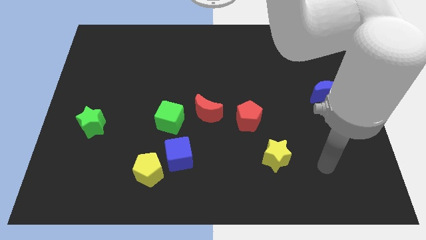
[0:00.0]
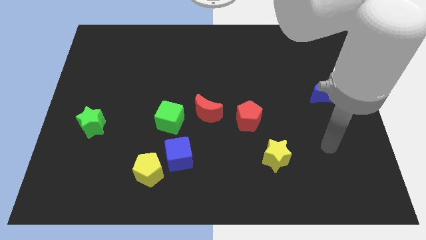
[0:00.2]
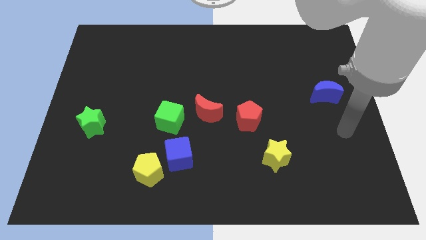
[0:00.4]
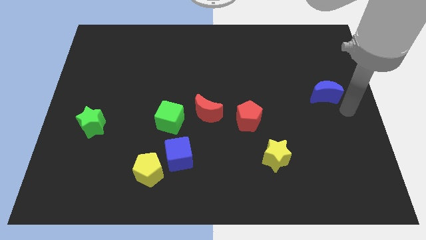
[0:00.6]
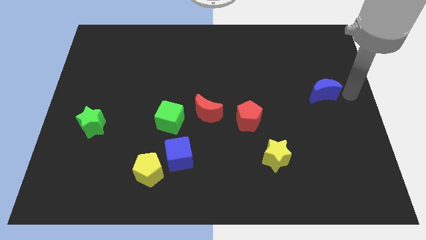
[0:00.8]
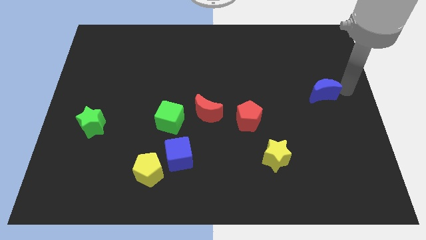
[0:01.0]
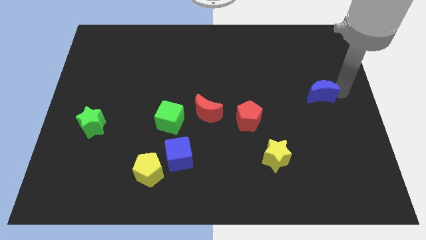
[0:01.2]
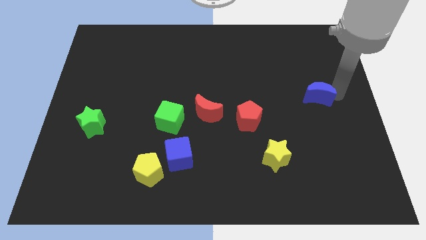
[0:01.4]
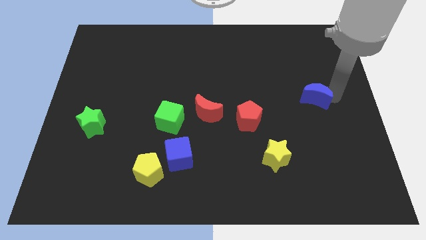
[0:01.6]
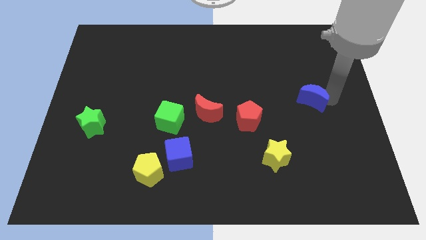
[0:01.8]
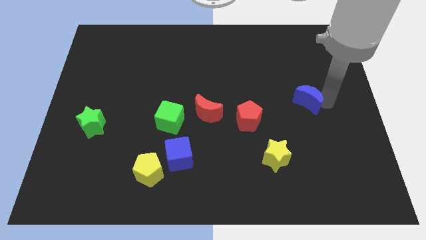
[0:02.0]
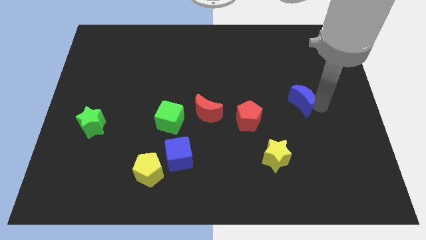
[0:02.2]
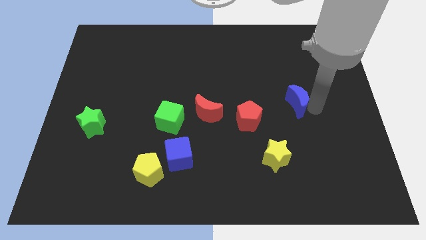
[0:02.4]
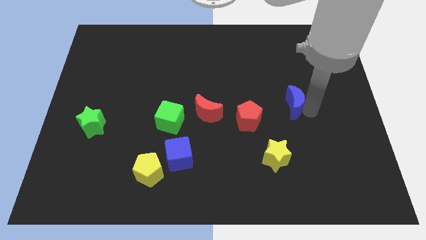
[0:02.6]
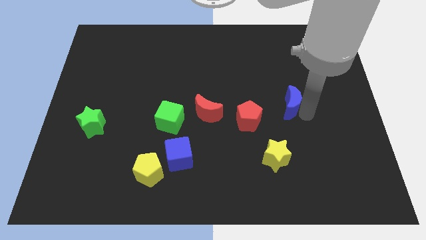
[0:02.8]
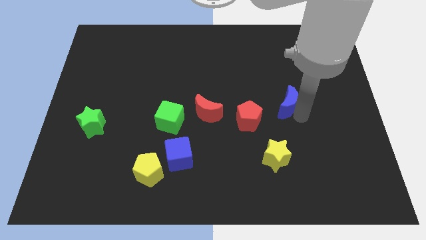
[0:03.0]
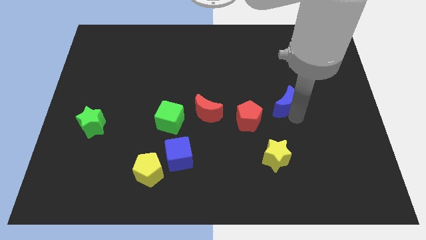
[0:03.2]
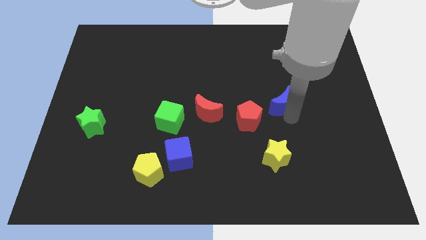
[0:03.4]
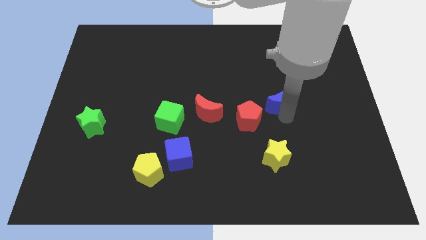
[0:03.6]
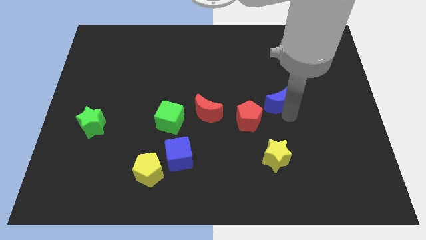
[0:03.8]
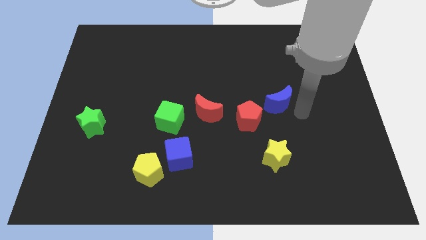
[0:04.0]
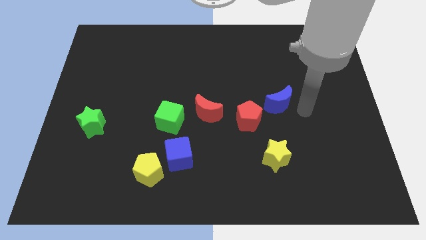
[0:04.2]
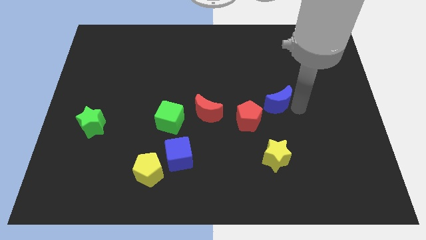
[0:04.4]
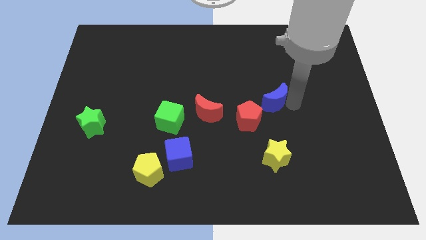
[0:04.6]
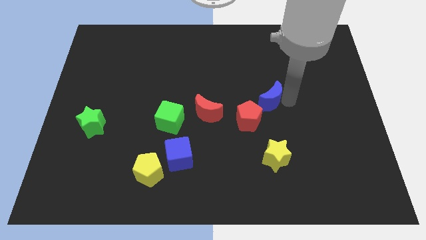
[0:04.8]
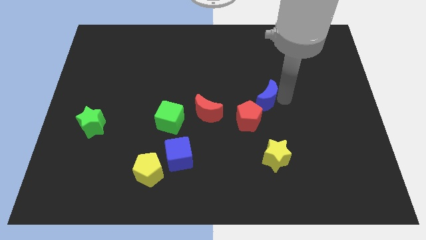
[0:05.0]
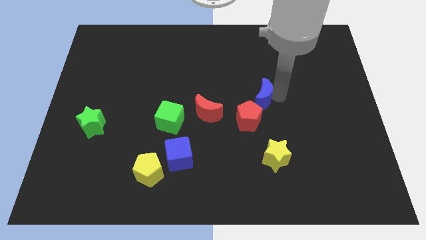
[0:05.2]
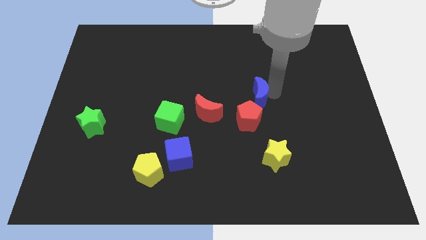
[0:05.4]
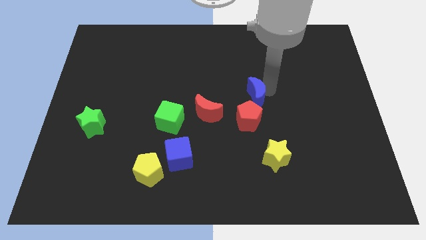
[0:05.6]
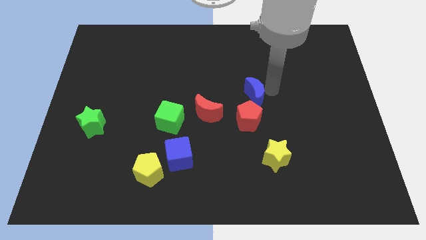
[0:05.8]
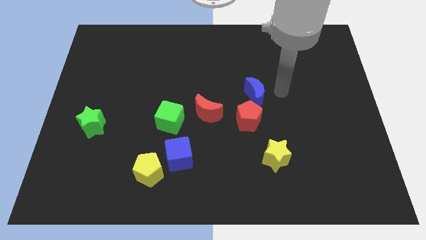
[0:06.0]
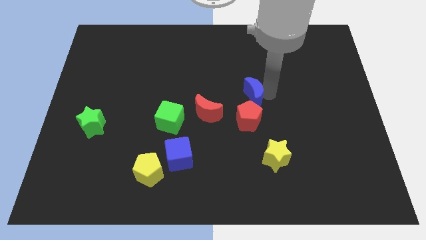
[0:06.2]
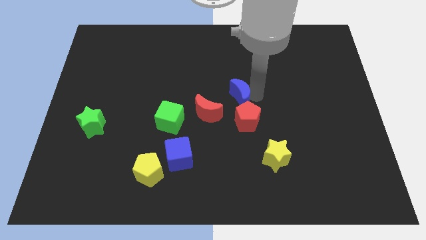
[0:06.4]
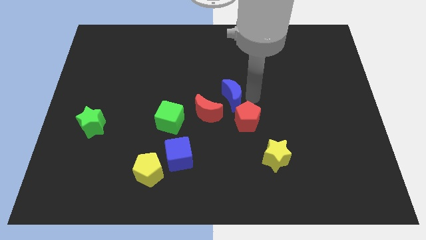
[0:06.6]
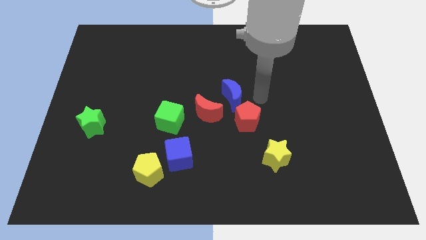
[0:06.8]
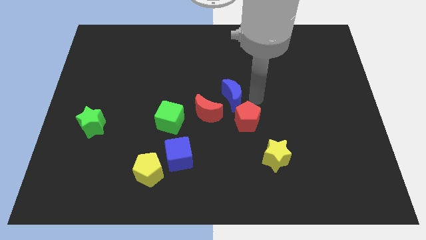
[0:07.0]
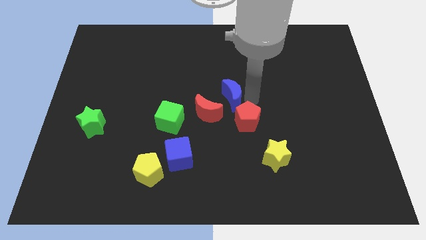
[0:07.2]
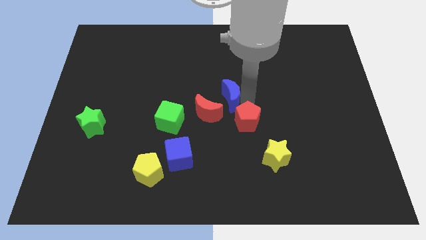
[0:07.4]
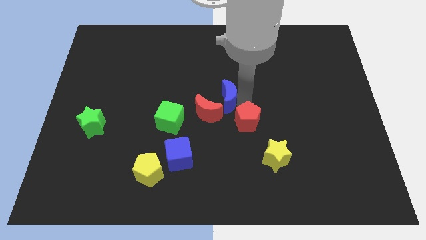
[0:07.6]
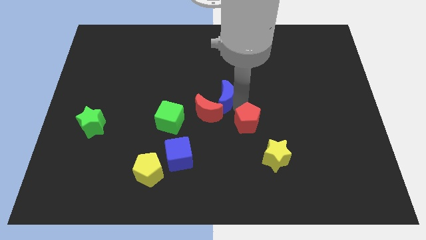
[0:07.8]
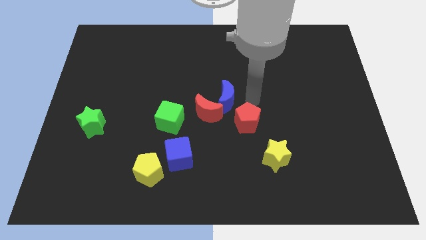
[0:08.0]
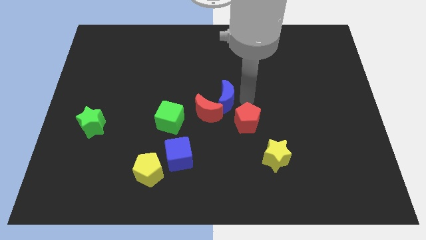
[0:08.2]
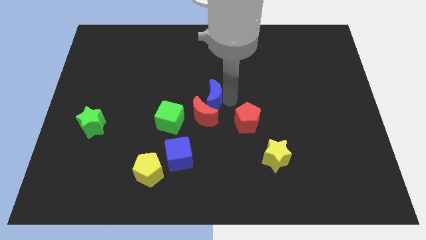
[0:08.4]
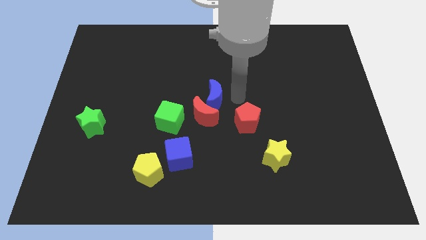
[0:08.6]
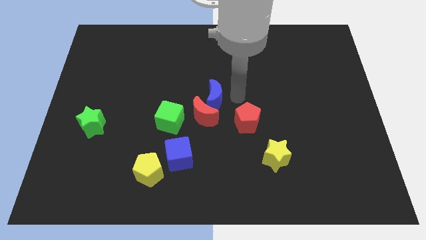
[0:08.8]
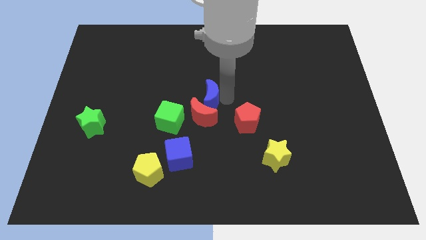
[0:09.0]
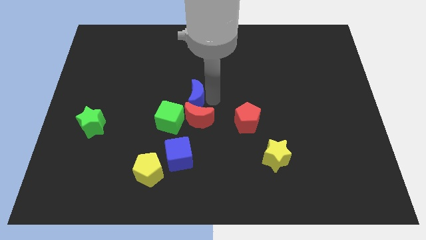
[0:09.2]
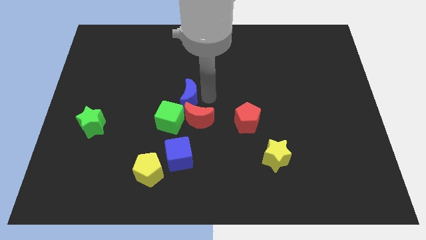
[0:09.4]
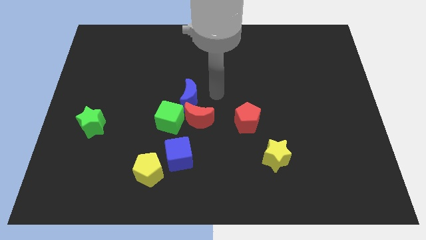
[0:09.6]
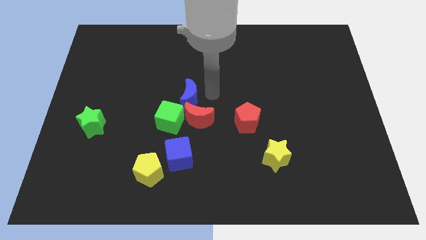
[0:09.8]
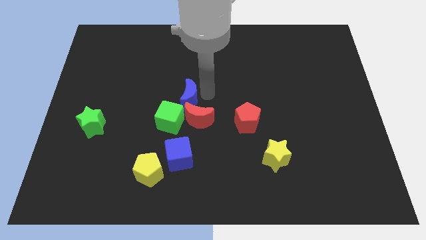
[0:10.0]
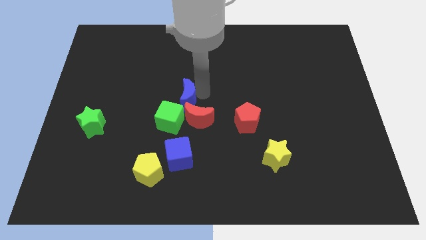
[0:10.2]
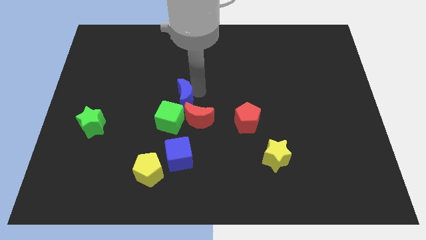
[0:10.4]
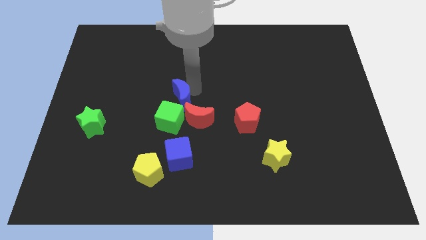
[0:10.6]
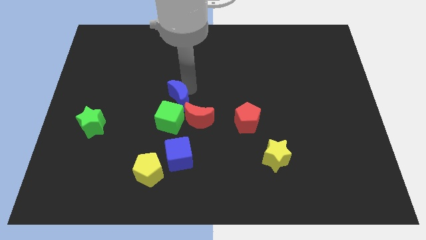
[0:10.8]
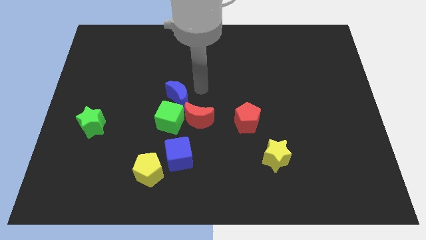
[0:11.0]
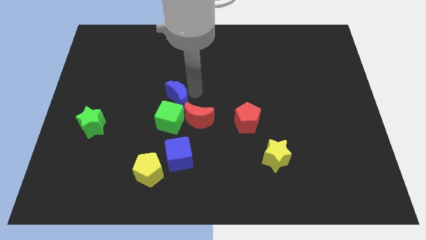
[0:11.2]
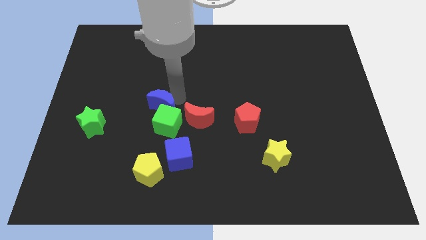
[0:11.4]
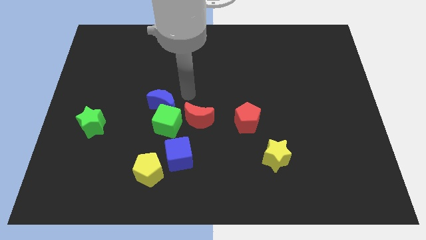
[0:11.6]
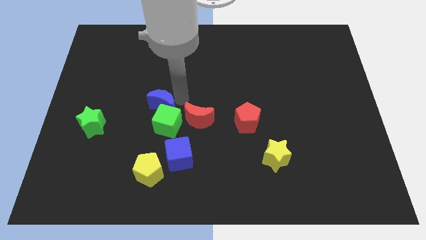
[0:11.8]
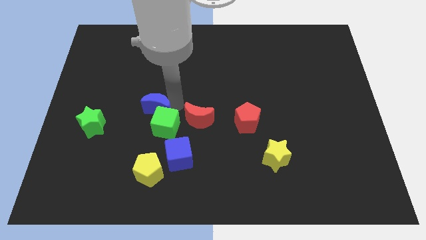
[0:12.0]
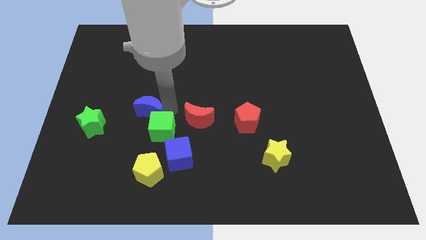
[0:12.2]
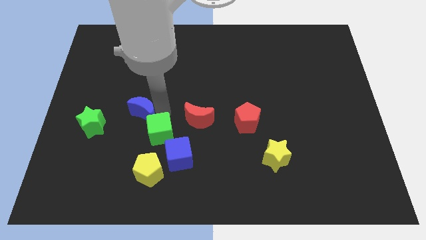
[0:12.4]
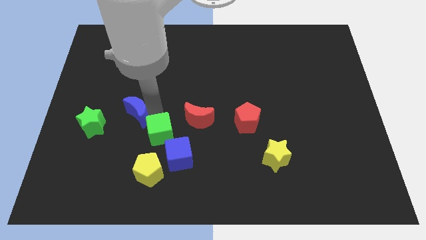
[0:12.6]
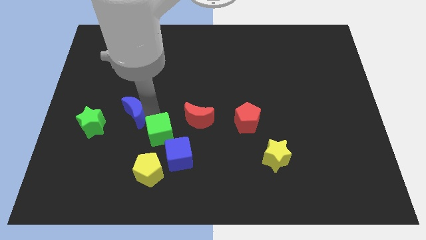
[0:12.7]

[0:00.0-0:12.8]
slide the blue moon left of the green cube

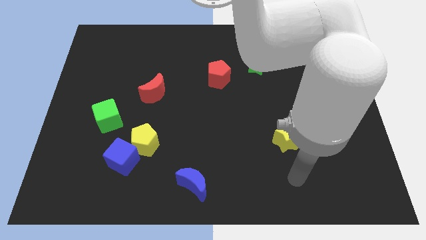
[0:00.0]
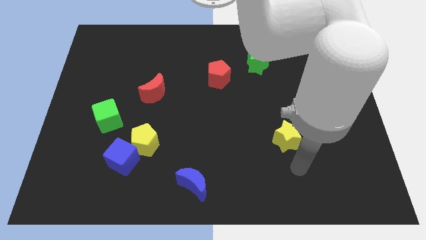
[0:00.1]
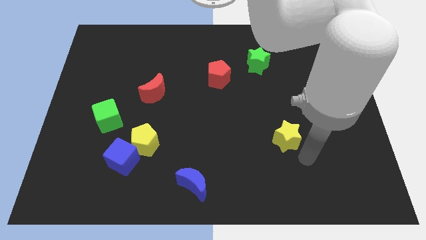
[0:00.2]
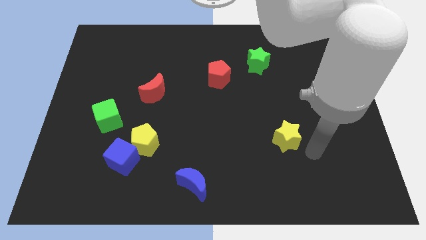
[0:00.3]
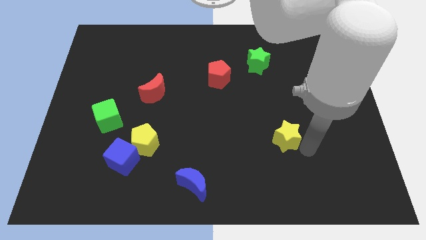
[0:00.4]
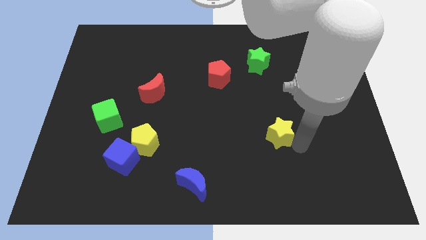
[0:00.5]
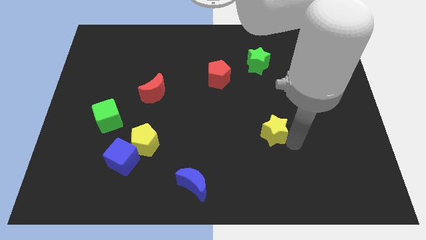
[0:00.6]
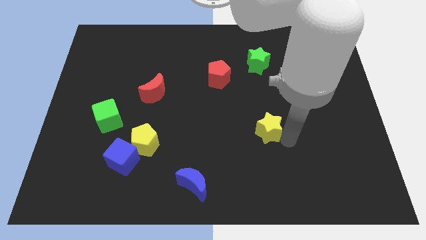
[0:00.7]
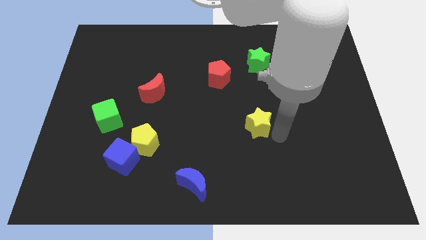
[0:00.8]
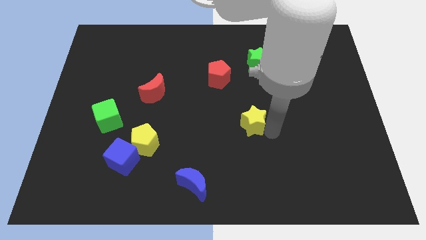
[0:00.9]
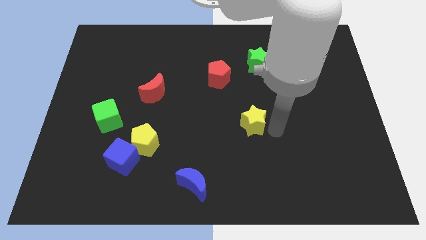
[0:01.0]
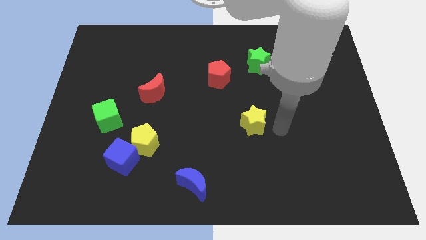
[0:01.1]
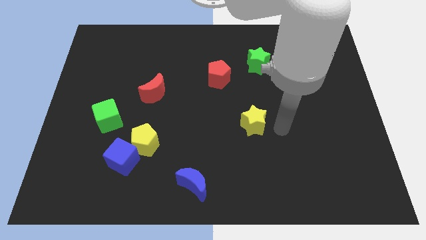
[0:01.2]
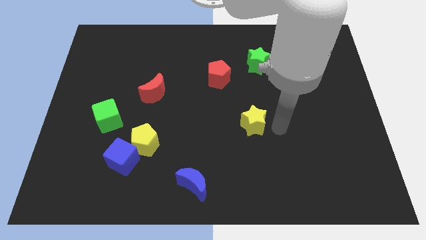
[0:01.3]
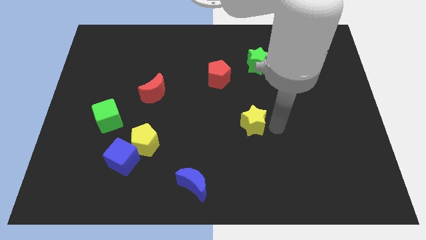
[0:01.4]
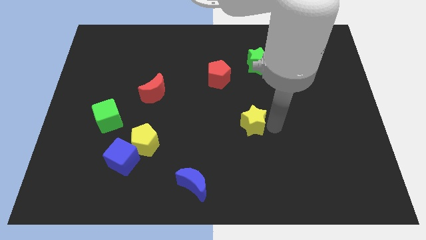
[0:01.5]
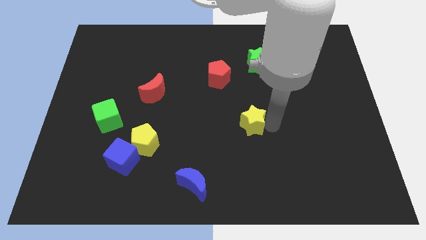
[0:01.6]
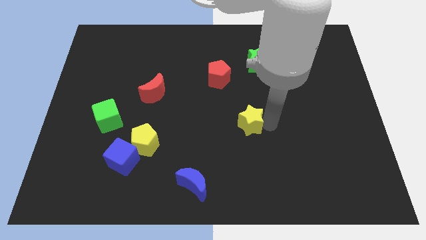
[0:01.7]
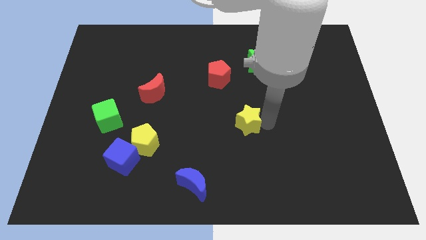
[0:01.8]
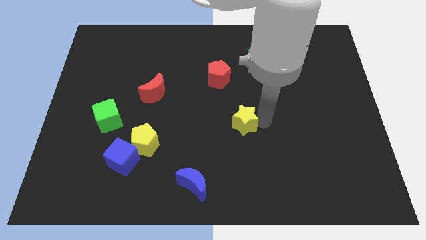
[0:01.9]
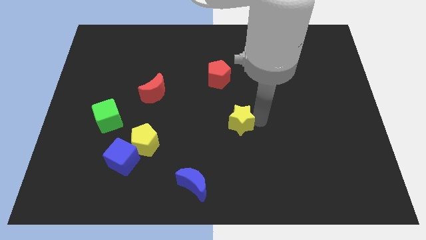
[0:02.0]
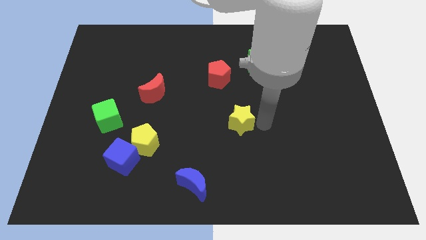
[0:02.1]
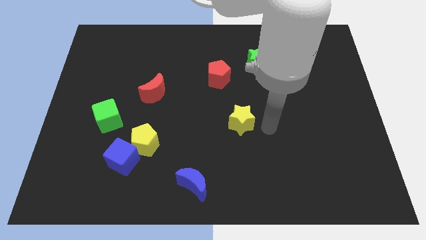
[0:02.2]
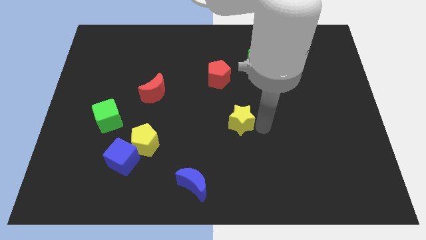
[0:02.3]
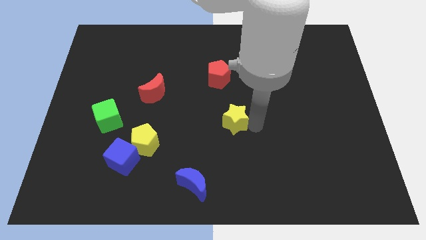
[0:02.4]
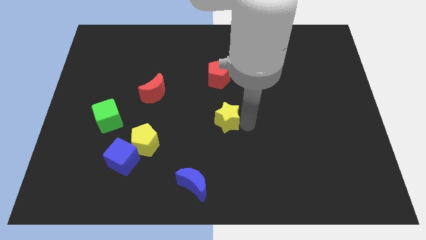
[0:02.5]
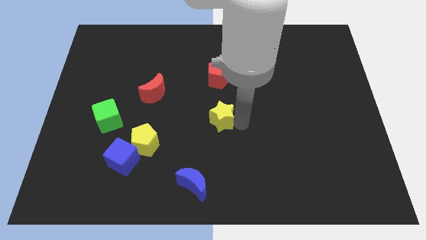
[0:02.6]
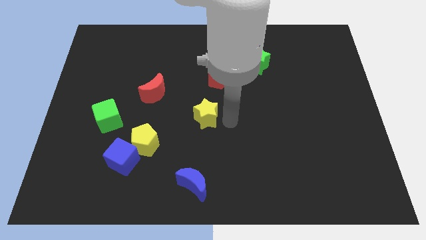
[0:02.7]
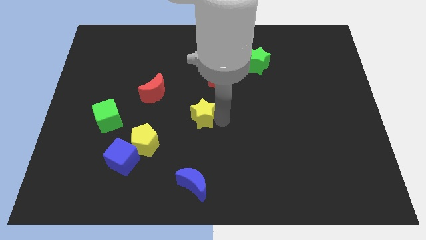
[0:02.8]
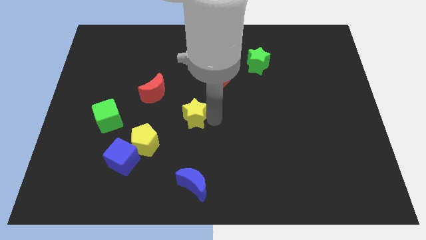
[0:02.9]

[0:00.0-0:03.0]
push the yellow star to the bottom right side of the red moon
